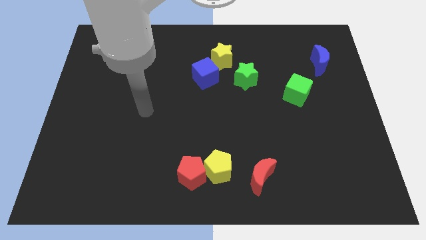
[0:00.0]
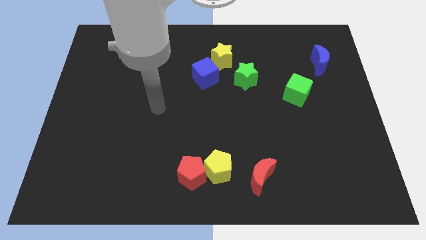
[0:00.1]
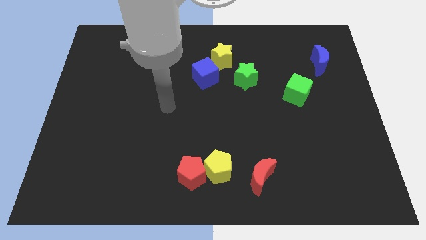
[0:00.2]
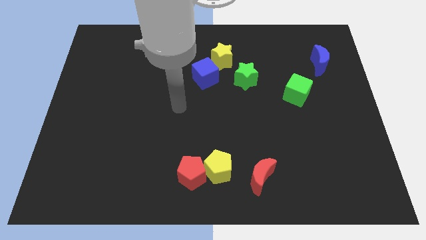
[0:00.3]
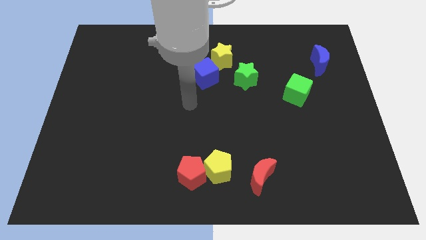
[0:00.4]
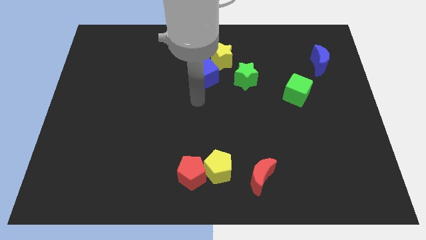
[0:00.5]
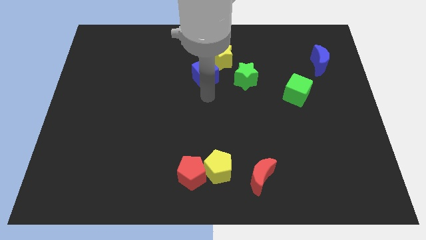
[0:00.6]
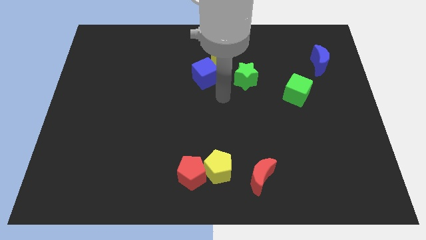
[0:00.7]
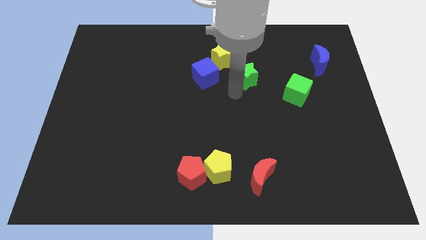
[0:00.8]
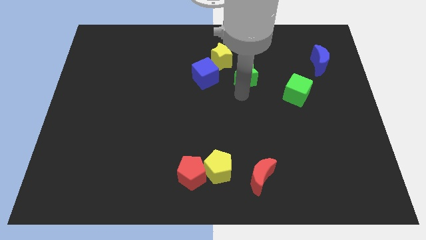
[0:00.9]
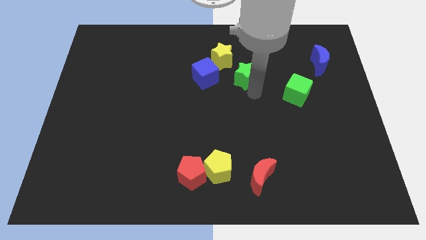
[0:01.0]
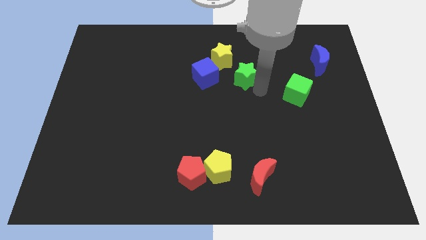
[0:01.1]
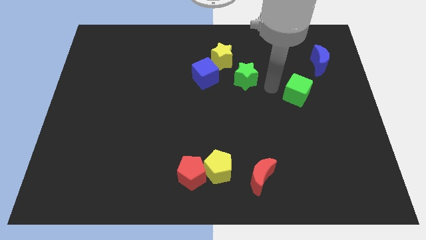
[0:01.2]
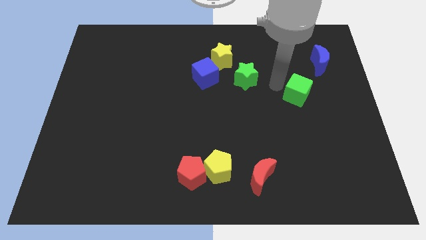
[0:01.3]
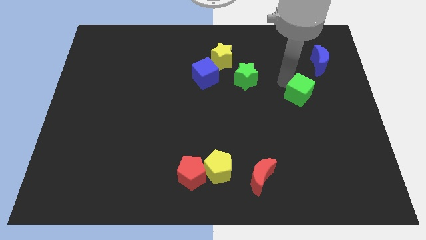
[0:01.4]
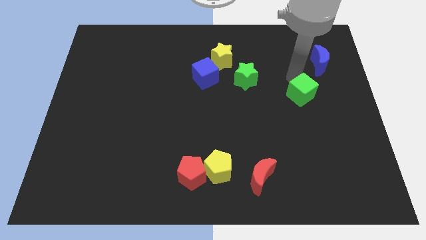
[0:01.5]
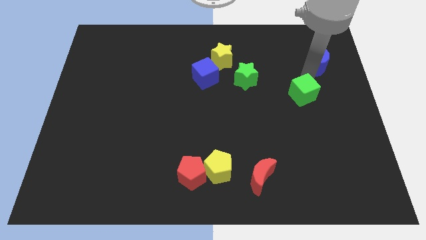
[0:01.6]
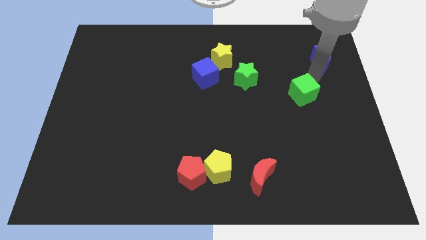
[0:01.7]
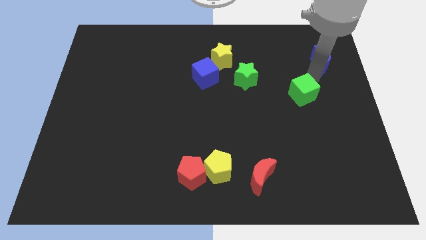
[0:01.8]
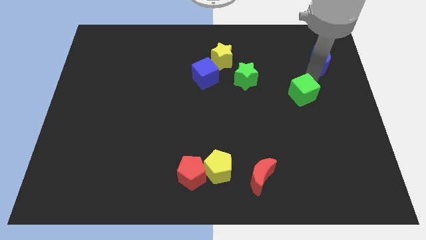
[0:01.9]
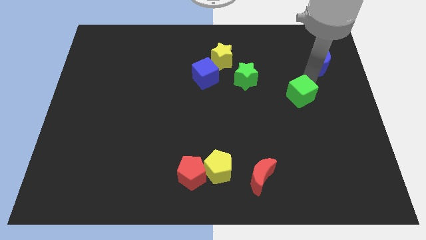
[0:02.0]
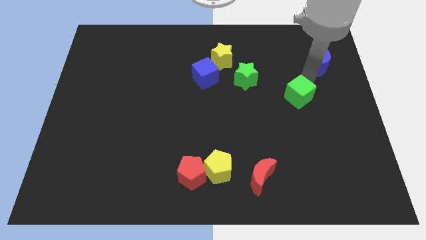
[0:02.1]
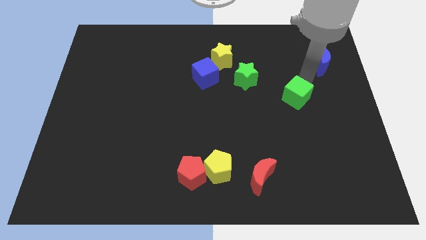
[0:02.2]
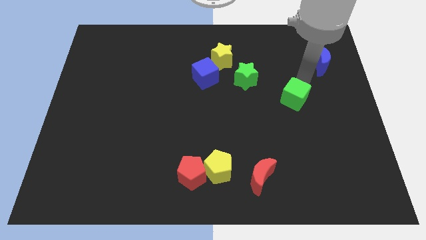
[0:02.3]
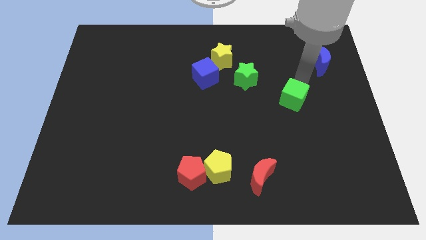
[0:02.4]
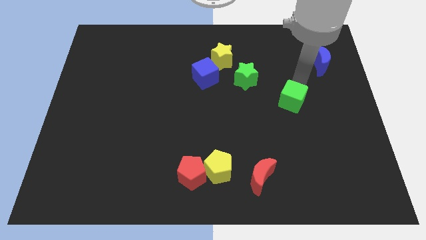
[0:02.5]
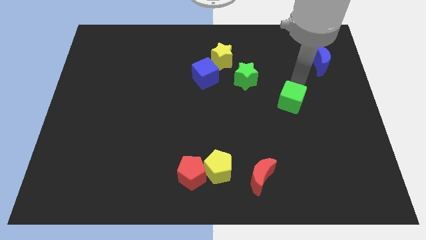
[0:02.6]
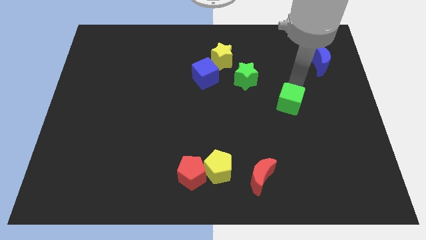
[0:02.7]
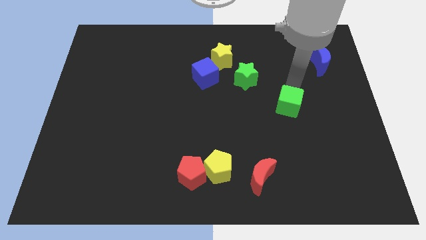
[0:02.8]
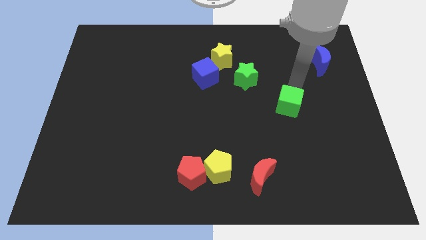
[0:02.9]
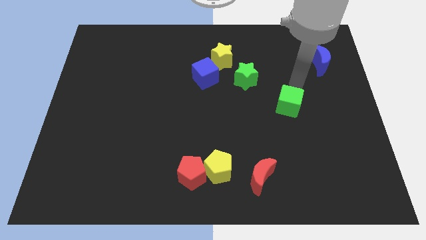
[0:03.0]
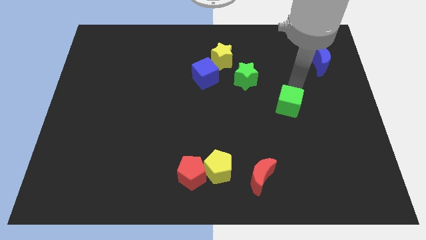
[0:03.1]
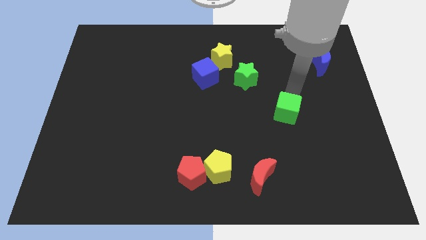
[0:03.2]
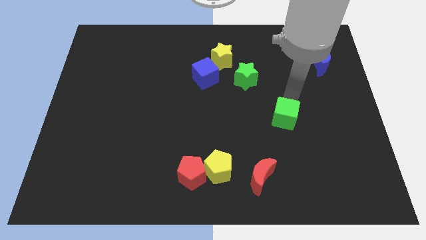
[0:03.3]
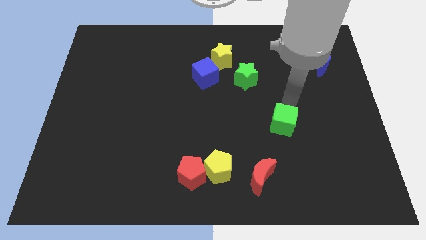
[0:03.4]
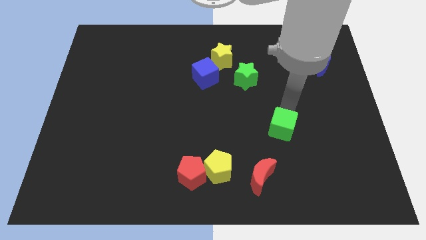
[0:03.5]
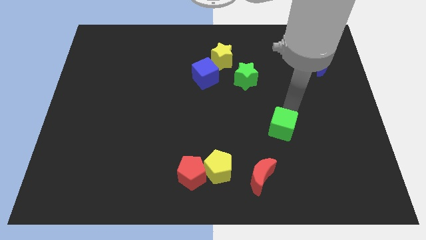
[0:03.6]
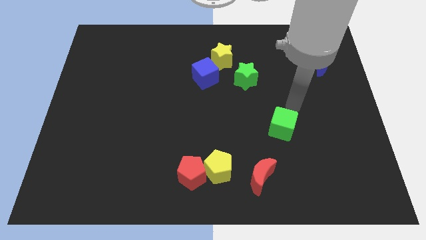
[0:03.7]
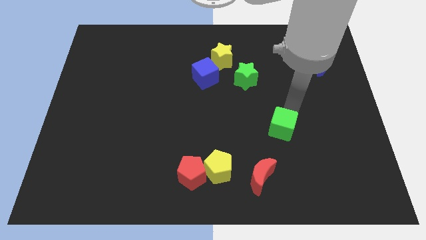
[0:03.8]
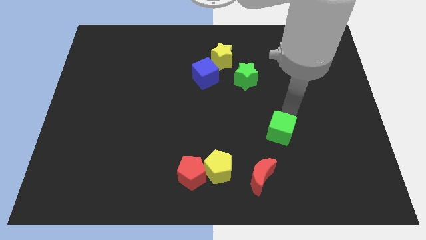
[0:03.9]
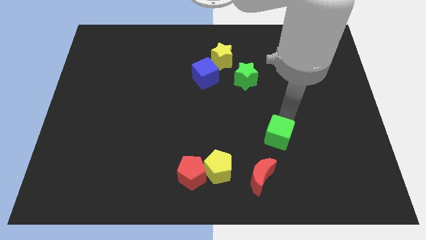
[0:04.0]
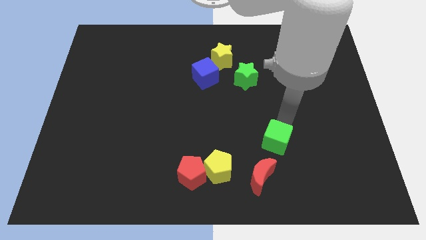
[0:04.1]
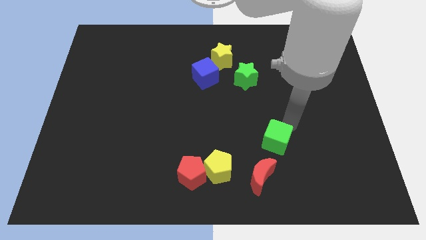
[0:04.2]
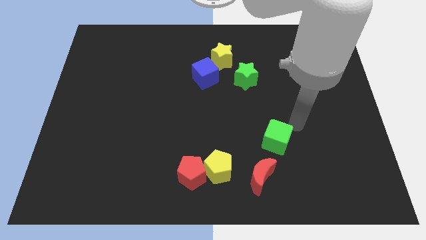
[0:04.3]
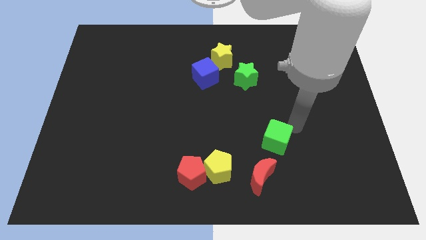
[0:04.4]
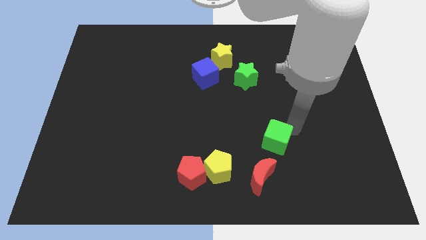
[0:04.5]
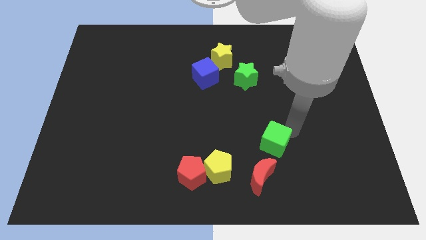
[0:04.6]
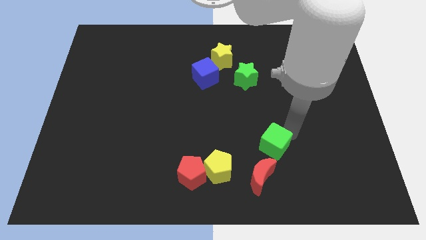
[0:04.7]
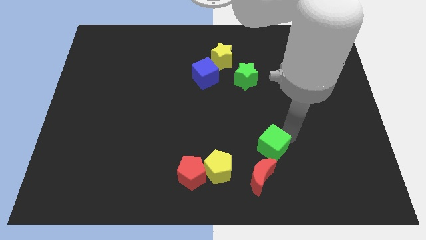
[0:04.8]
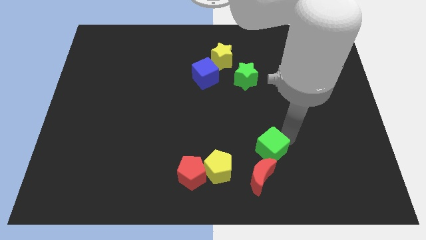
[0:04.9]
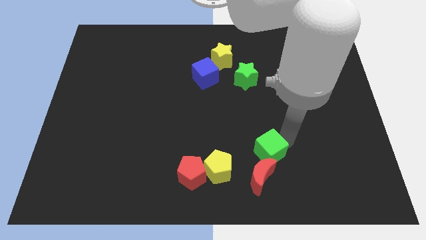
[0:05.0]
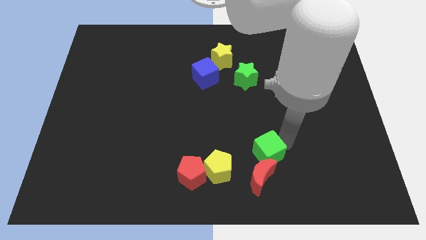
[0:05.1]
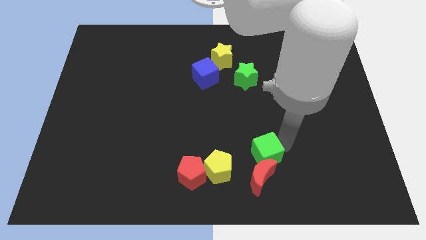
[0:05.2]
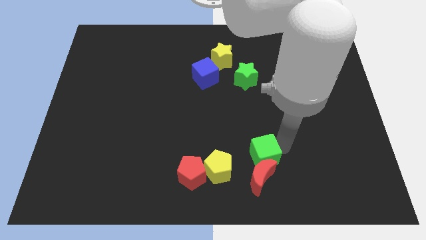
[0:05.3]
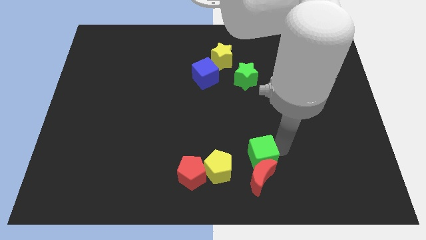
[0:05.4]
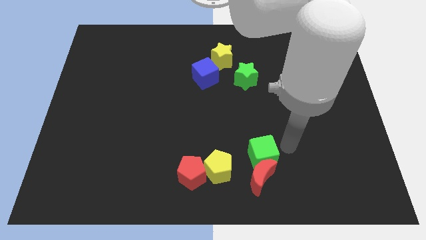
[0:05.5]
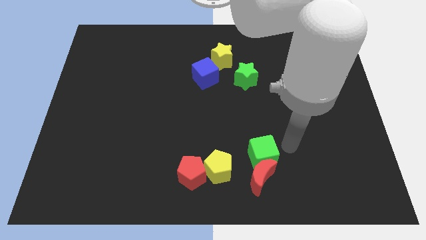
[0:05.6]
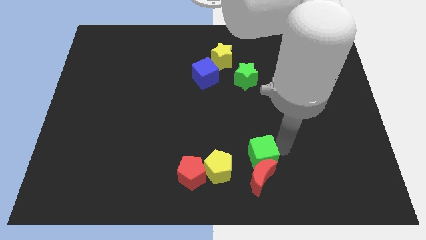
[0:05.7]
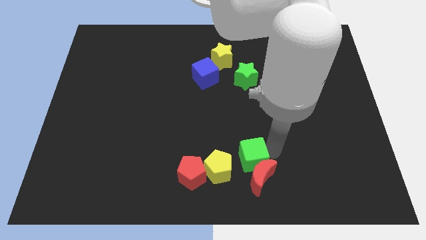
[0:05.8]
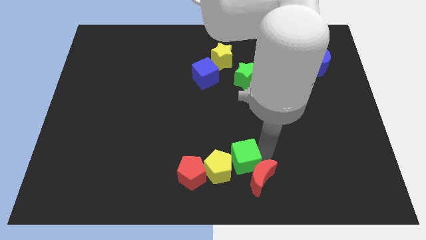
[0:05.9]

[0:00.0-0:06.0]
put the green cube next to the yellow pentagon
